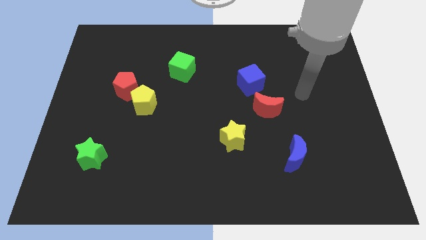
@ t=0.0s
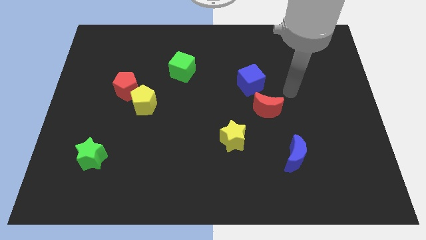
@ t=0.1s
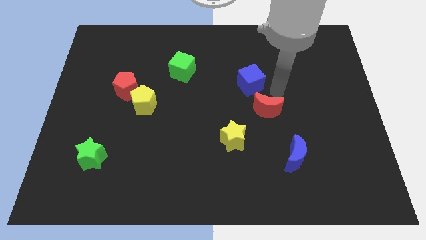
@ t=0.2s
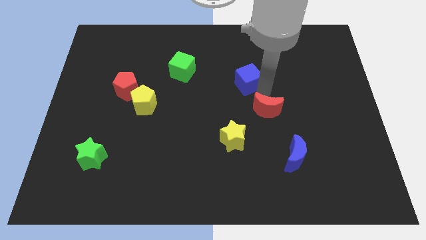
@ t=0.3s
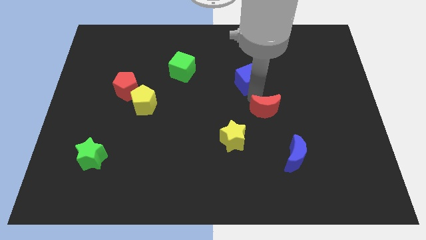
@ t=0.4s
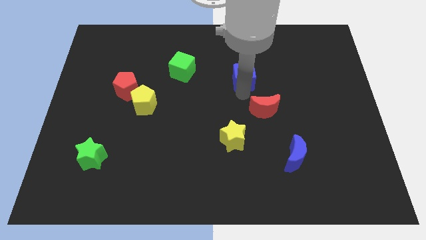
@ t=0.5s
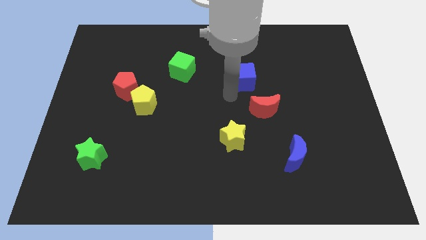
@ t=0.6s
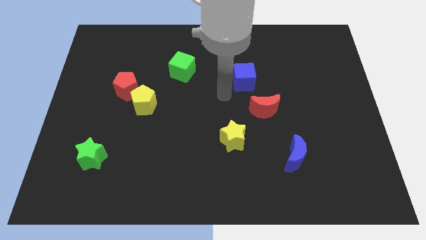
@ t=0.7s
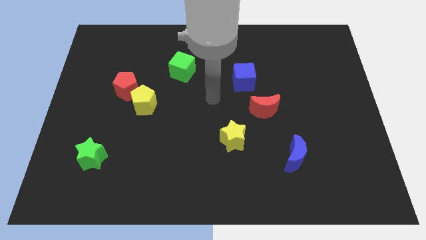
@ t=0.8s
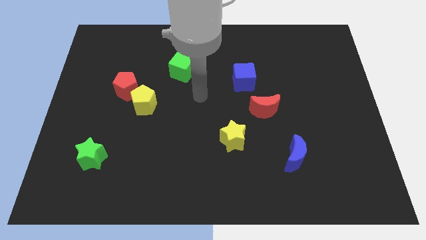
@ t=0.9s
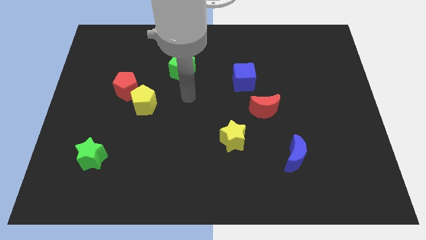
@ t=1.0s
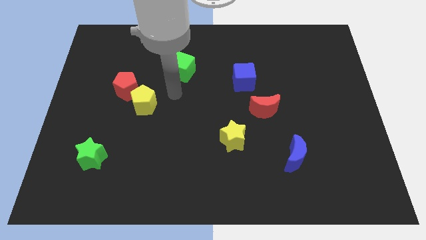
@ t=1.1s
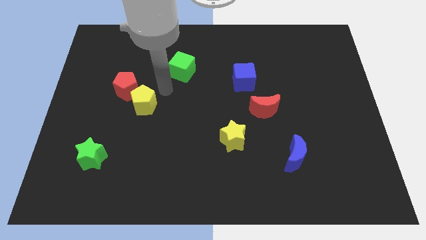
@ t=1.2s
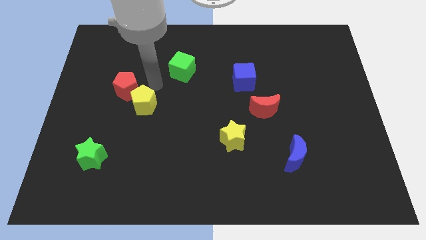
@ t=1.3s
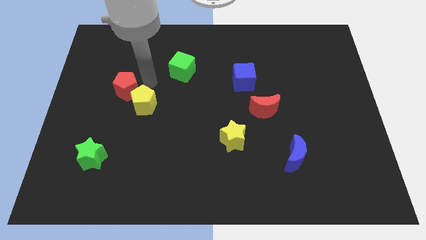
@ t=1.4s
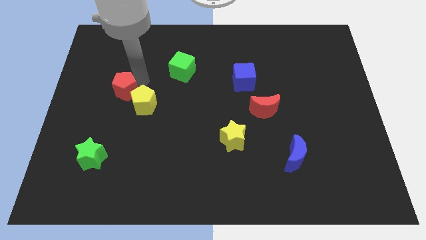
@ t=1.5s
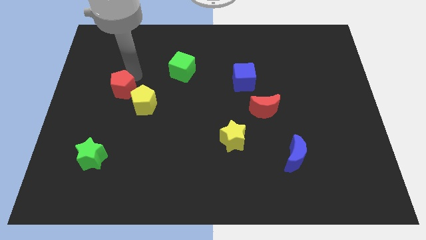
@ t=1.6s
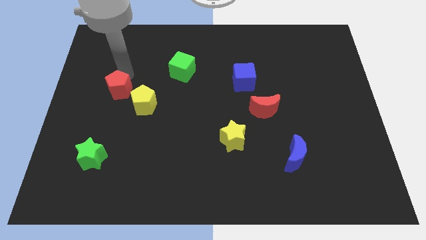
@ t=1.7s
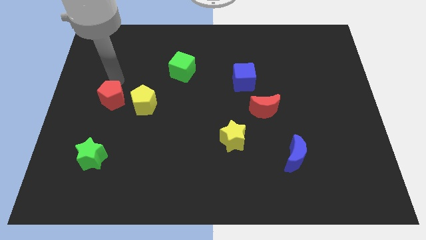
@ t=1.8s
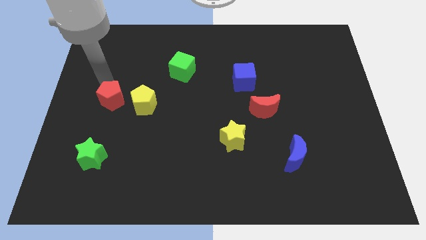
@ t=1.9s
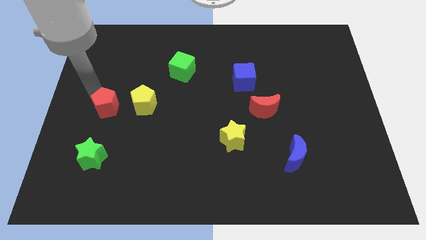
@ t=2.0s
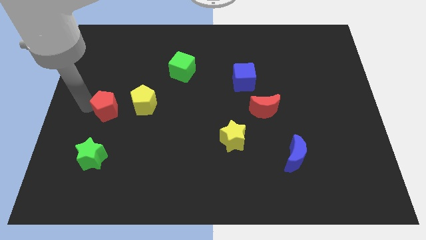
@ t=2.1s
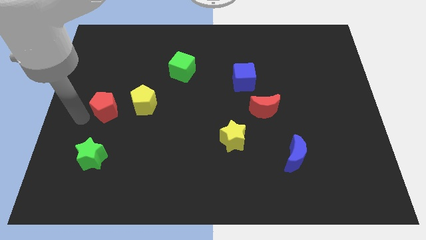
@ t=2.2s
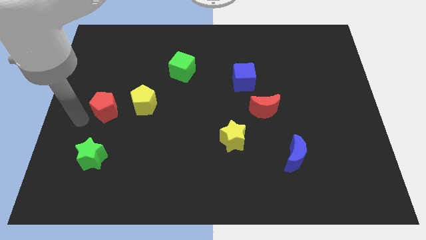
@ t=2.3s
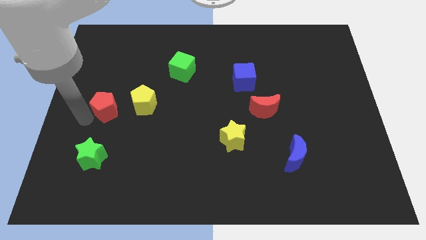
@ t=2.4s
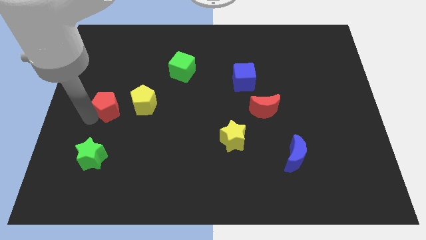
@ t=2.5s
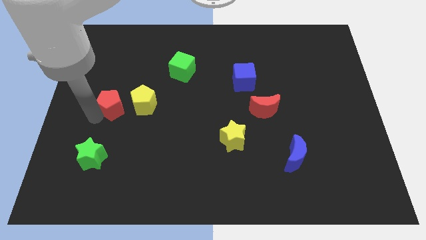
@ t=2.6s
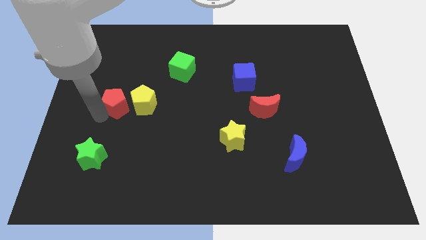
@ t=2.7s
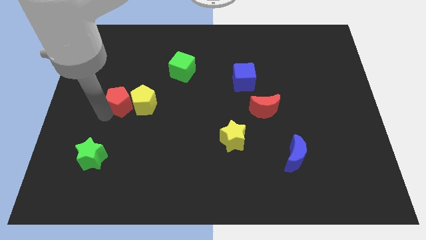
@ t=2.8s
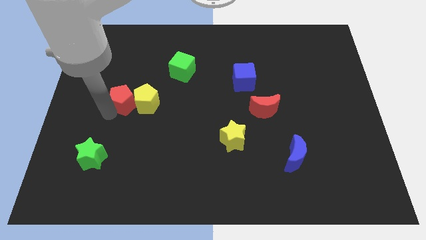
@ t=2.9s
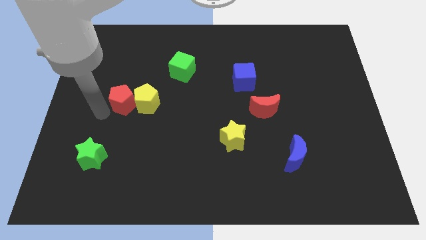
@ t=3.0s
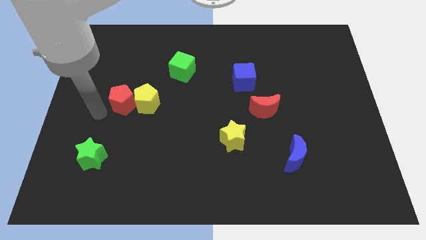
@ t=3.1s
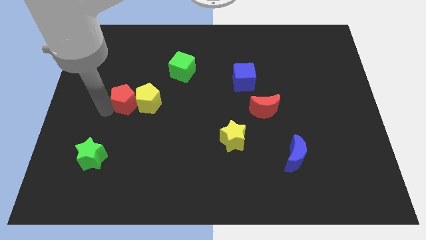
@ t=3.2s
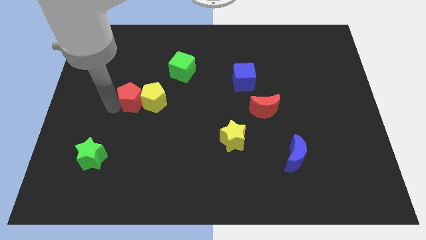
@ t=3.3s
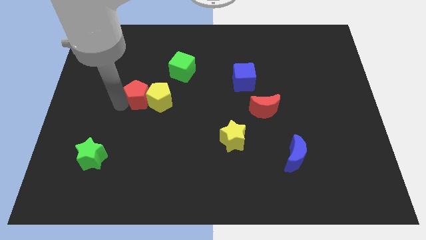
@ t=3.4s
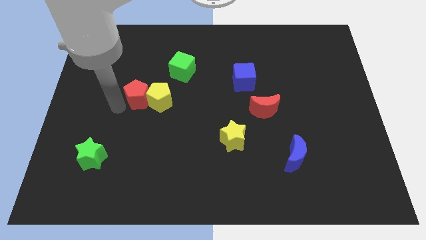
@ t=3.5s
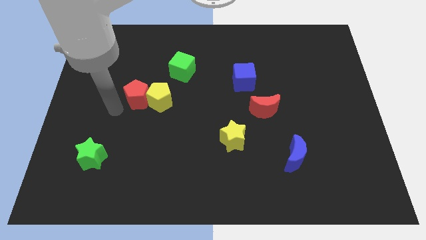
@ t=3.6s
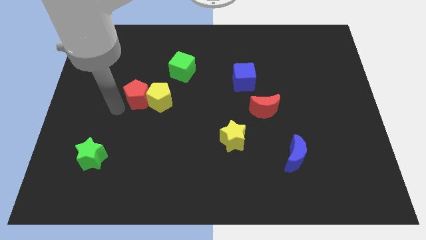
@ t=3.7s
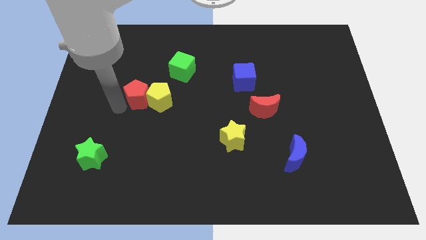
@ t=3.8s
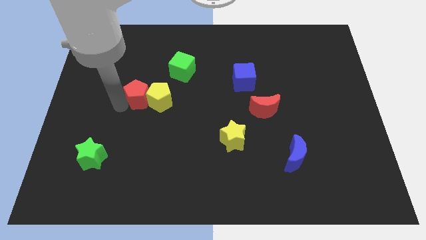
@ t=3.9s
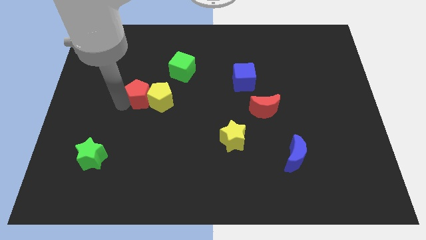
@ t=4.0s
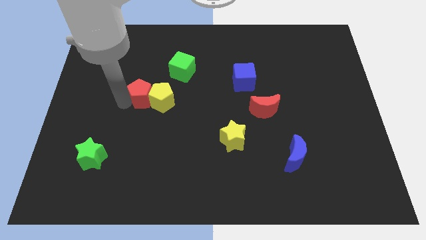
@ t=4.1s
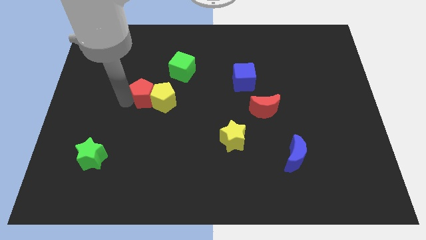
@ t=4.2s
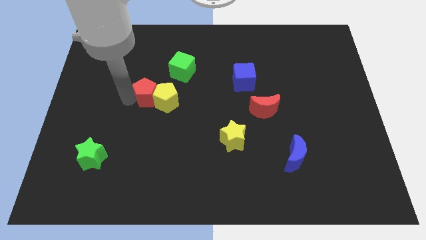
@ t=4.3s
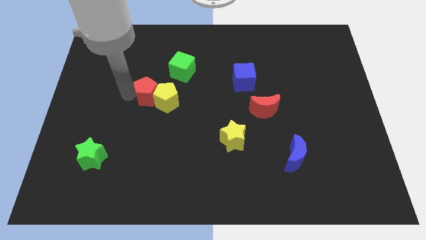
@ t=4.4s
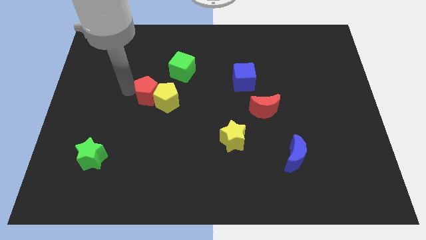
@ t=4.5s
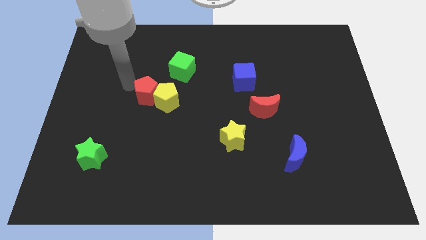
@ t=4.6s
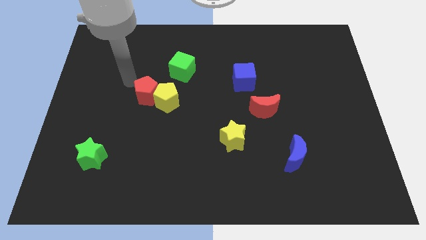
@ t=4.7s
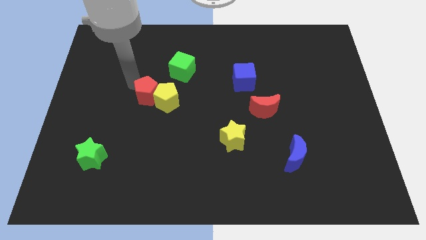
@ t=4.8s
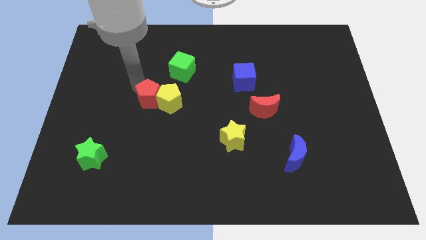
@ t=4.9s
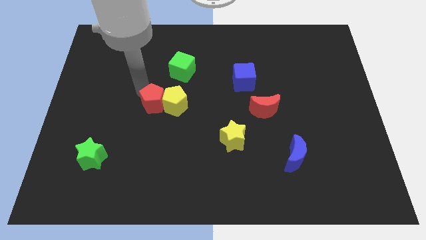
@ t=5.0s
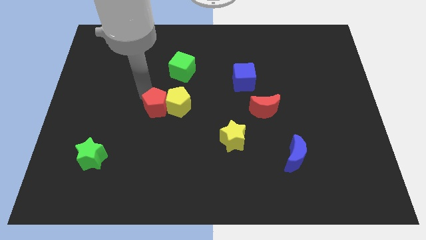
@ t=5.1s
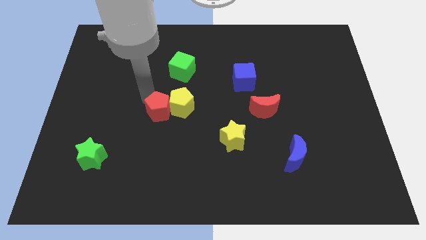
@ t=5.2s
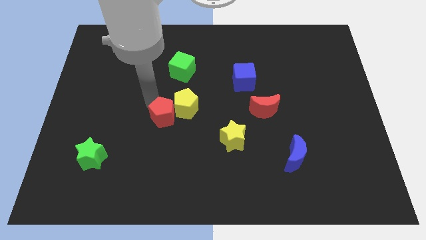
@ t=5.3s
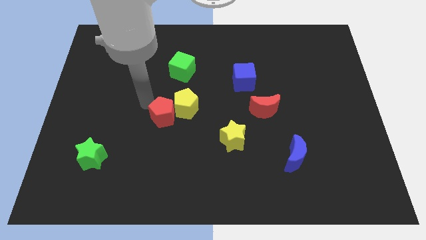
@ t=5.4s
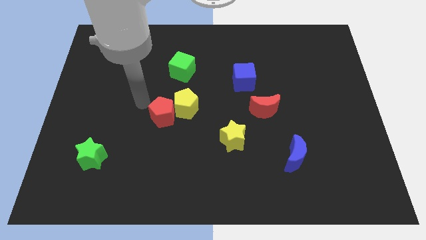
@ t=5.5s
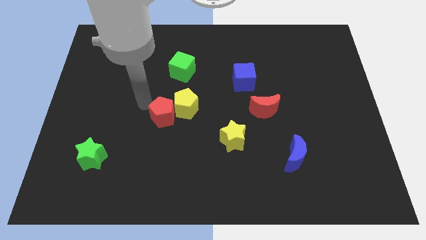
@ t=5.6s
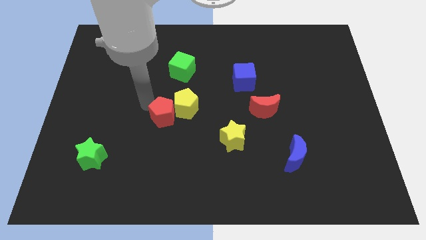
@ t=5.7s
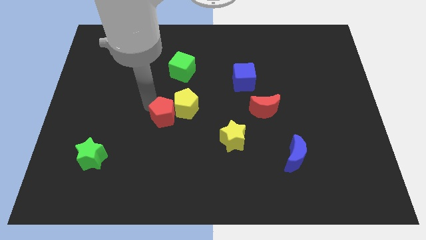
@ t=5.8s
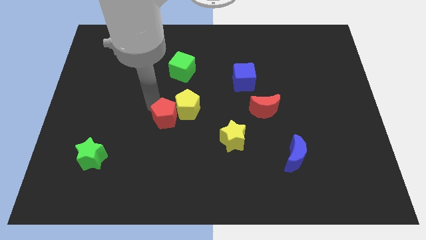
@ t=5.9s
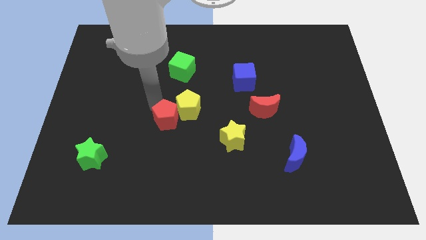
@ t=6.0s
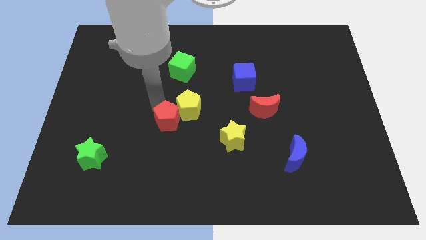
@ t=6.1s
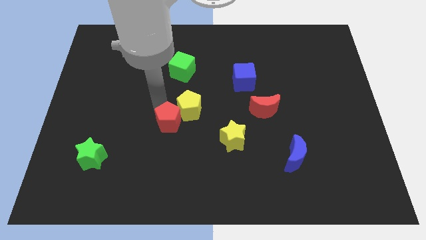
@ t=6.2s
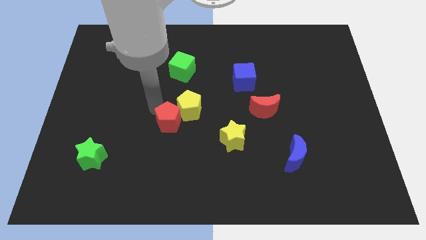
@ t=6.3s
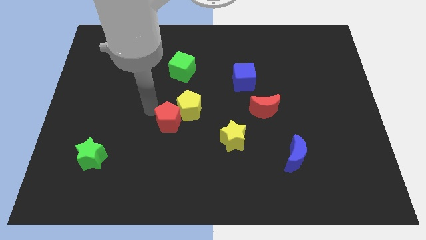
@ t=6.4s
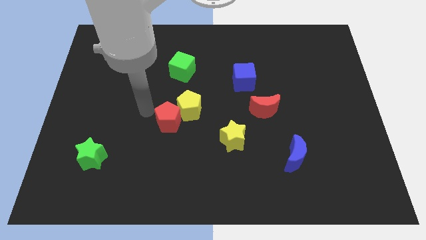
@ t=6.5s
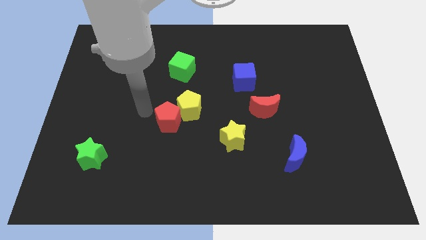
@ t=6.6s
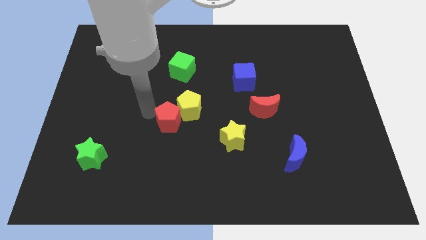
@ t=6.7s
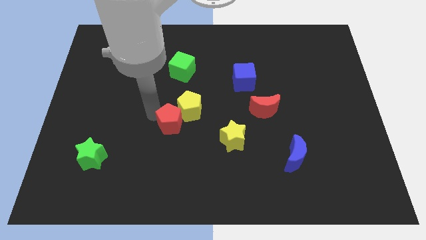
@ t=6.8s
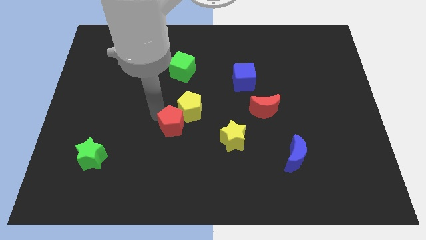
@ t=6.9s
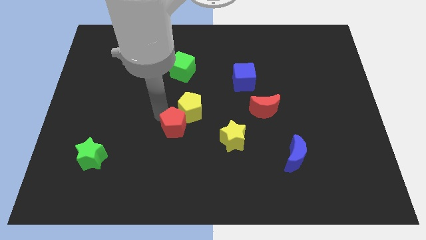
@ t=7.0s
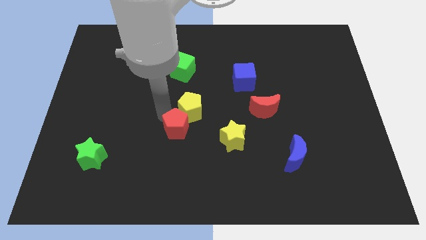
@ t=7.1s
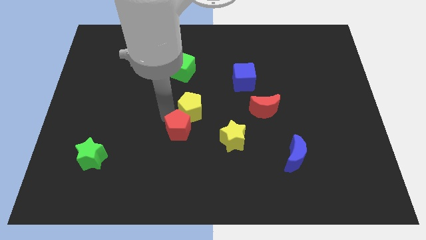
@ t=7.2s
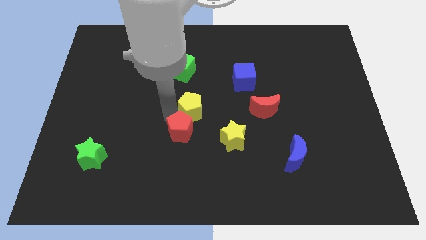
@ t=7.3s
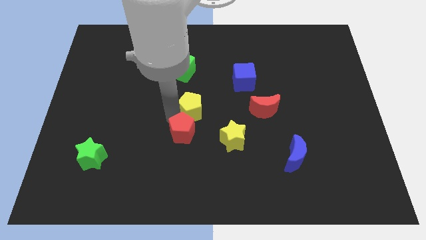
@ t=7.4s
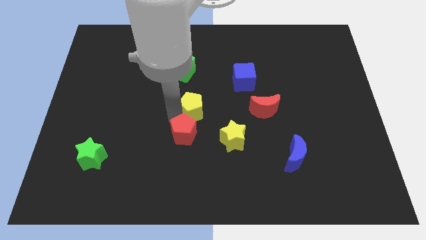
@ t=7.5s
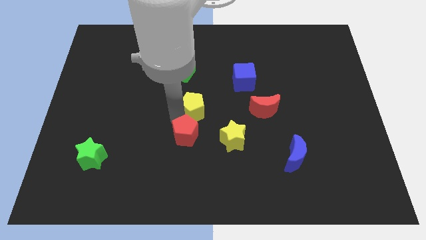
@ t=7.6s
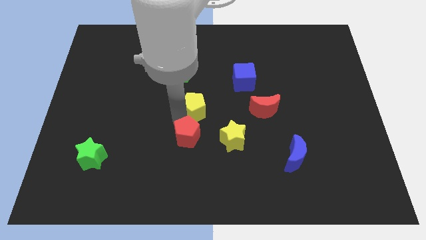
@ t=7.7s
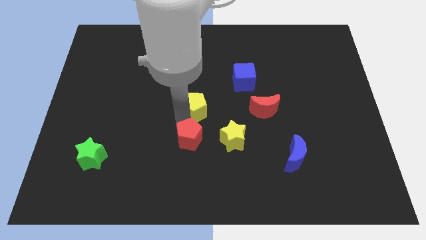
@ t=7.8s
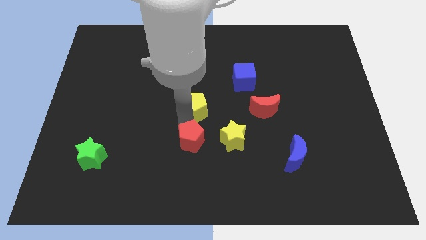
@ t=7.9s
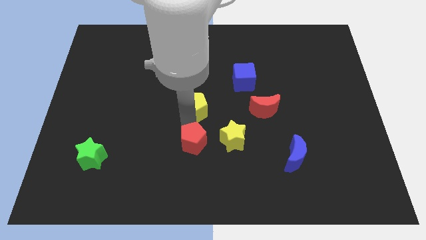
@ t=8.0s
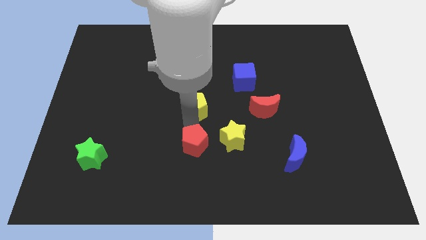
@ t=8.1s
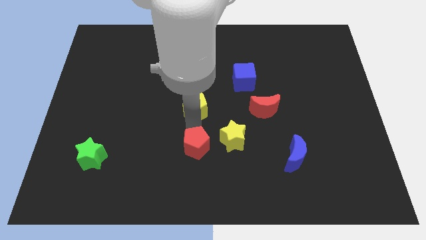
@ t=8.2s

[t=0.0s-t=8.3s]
slide the red pentagon to the bottom left of the yellow star
